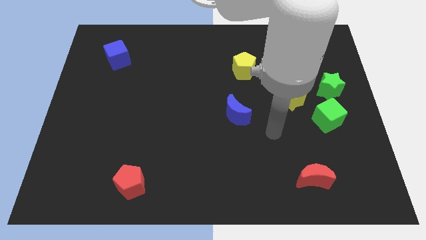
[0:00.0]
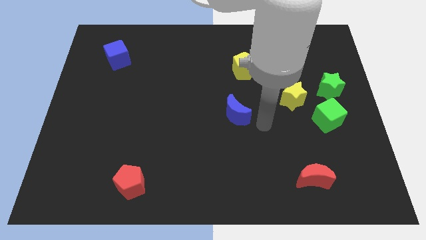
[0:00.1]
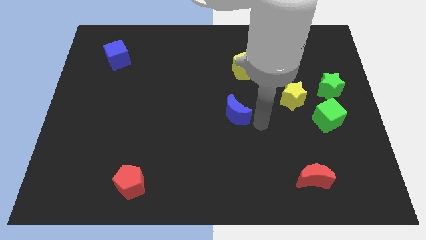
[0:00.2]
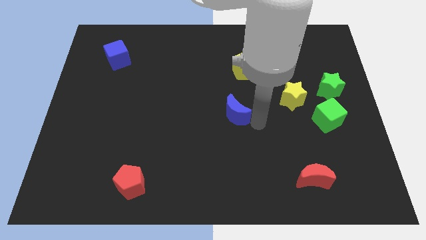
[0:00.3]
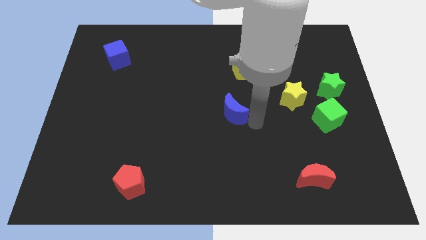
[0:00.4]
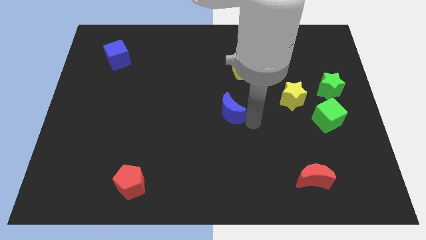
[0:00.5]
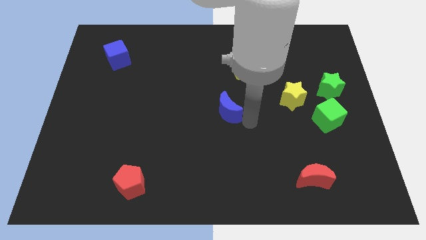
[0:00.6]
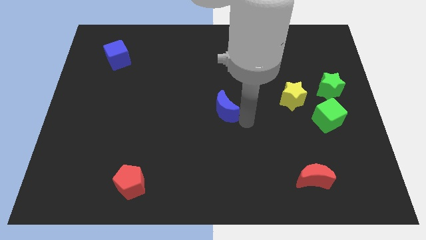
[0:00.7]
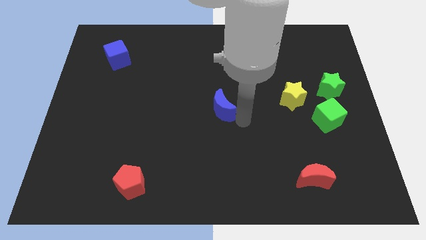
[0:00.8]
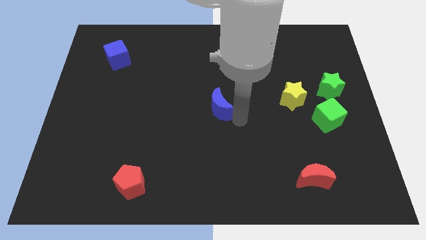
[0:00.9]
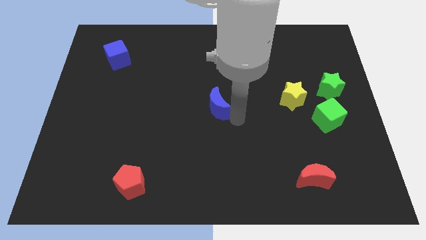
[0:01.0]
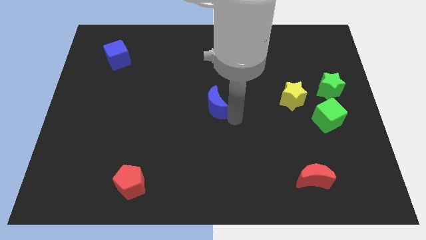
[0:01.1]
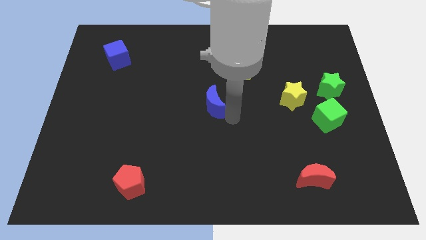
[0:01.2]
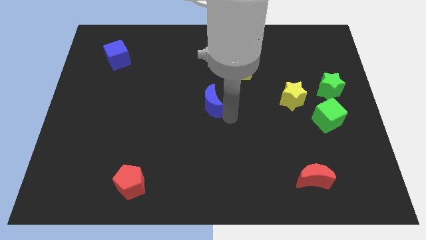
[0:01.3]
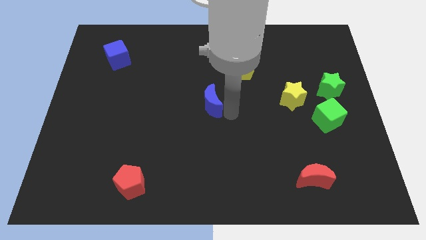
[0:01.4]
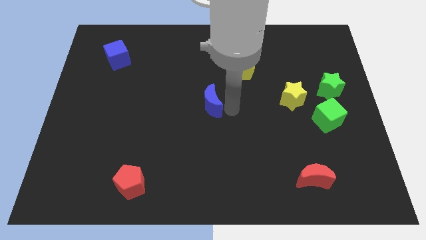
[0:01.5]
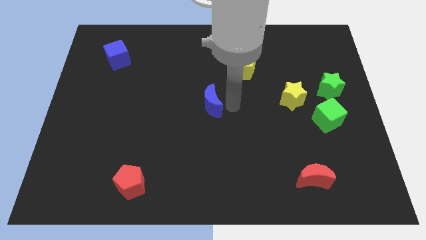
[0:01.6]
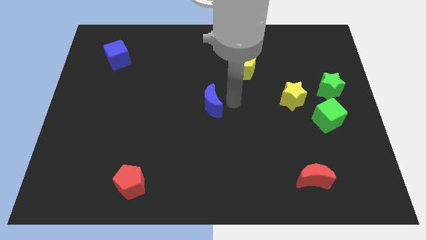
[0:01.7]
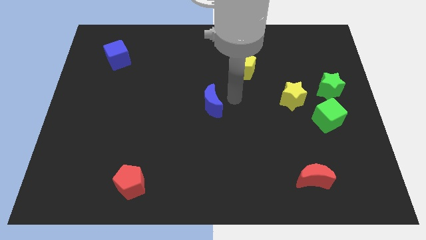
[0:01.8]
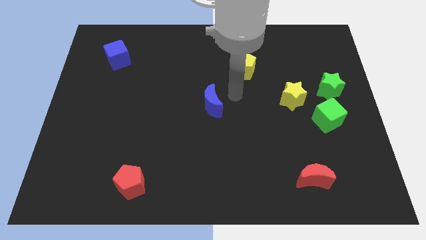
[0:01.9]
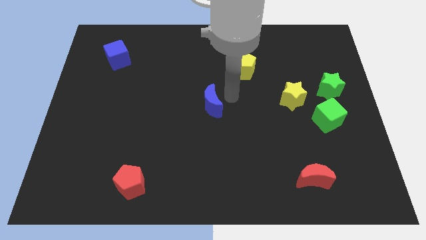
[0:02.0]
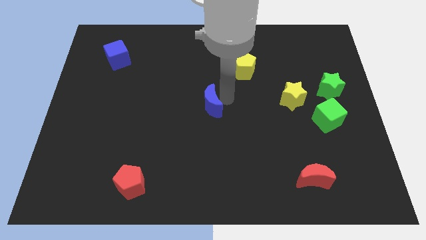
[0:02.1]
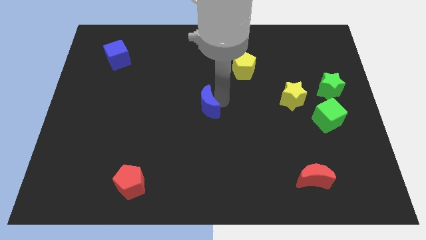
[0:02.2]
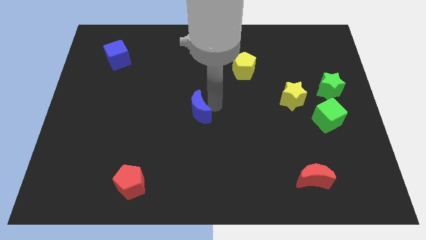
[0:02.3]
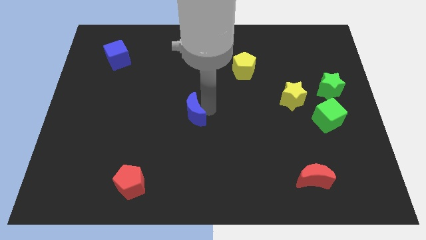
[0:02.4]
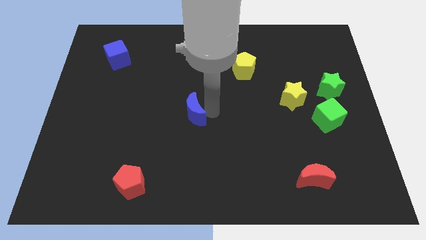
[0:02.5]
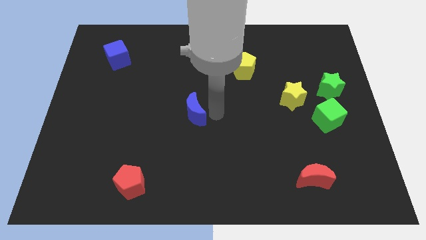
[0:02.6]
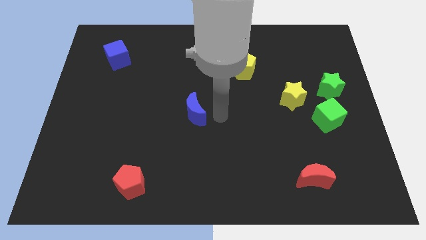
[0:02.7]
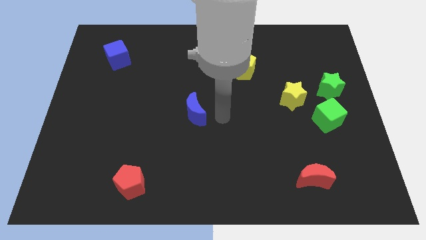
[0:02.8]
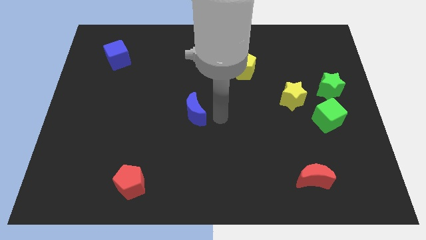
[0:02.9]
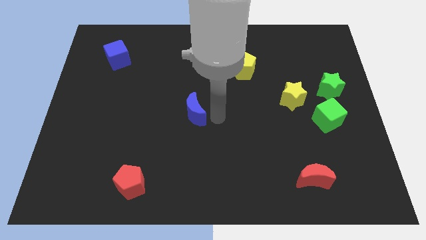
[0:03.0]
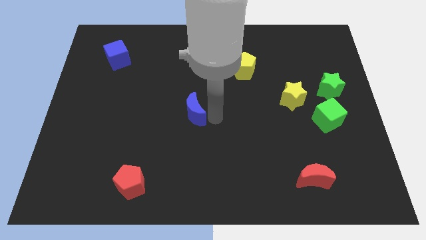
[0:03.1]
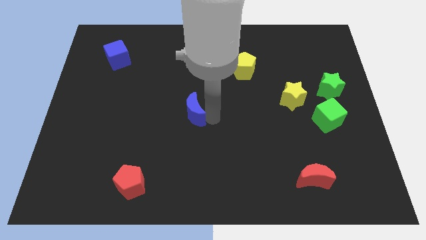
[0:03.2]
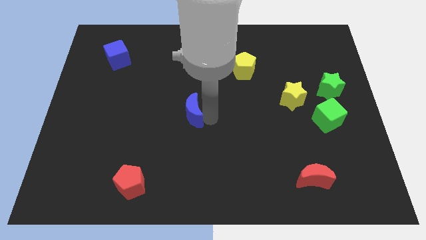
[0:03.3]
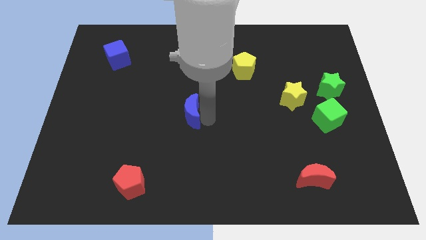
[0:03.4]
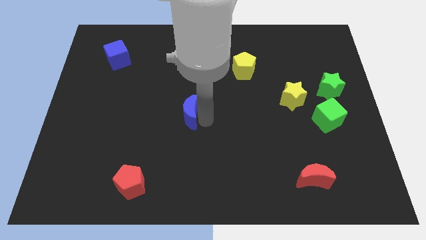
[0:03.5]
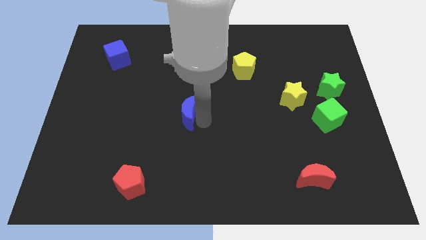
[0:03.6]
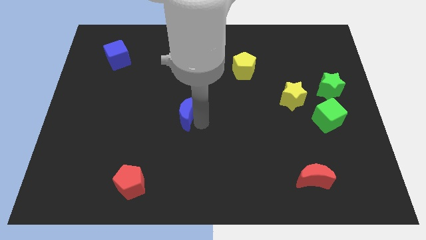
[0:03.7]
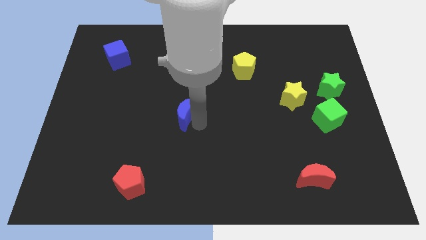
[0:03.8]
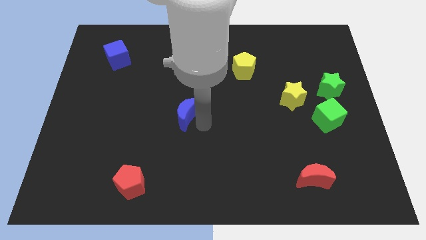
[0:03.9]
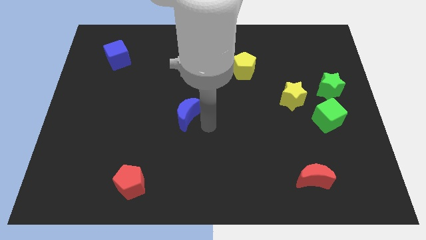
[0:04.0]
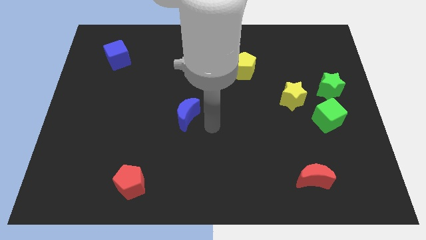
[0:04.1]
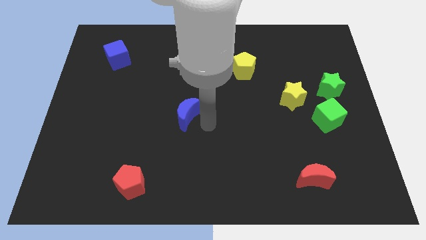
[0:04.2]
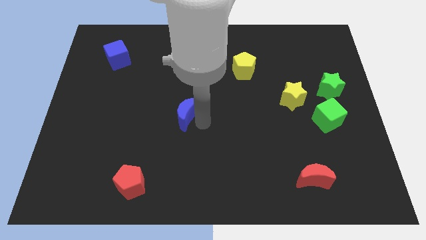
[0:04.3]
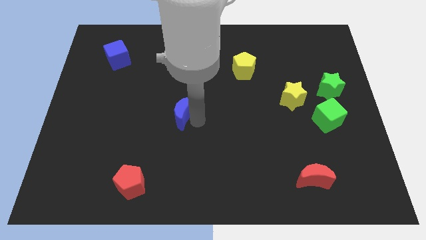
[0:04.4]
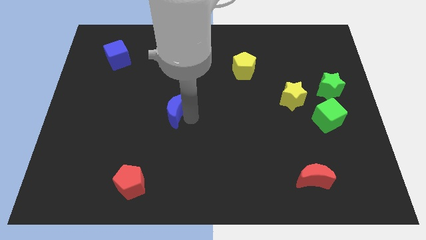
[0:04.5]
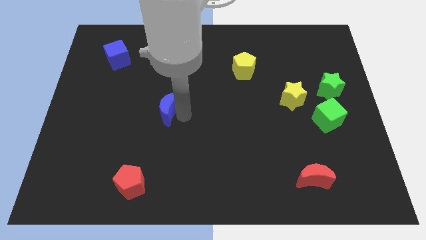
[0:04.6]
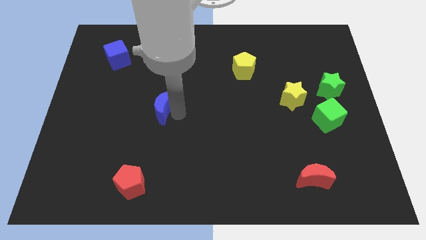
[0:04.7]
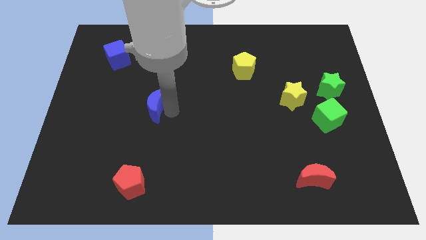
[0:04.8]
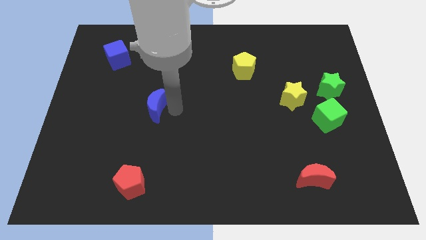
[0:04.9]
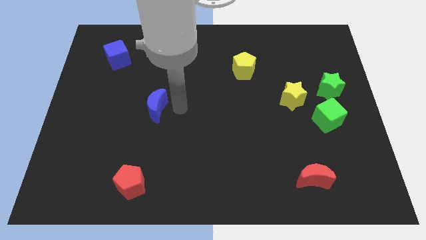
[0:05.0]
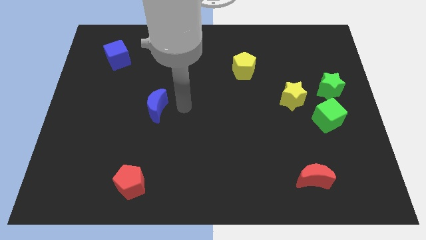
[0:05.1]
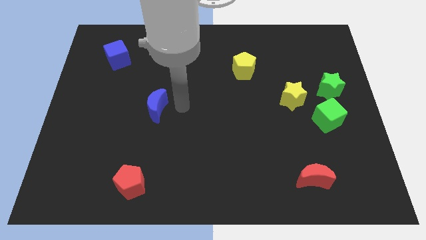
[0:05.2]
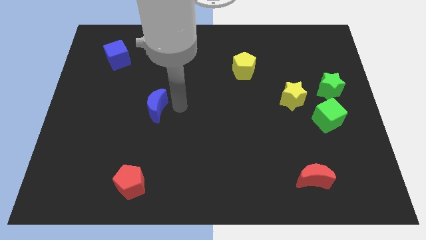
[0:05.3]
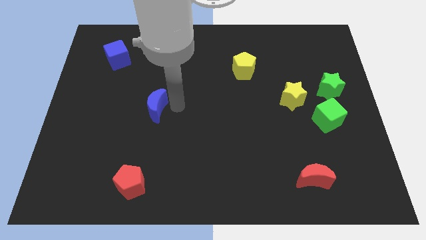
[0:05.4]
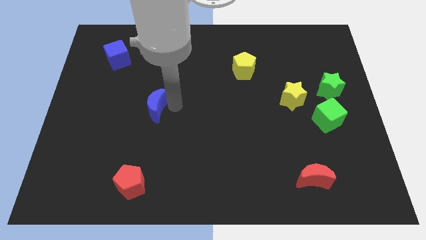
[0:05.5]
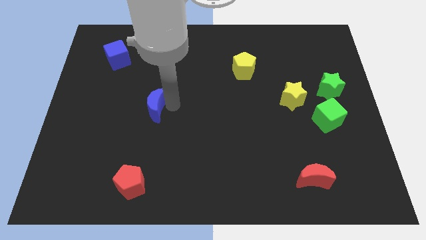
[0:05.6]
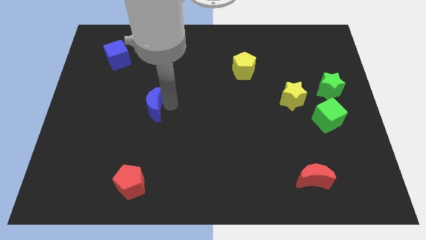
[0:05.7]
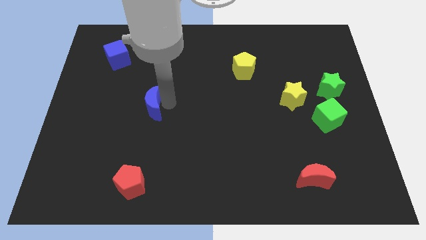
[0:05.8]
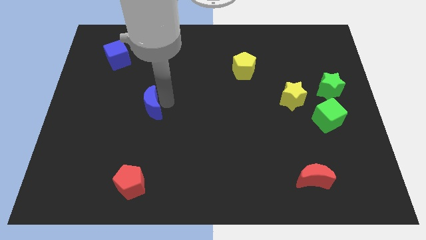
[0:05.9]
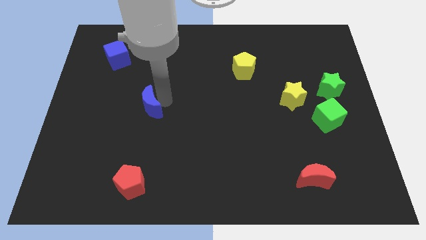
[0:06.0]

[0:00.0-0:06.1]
push the blue moon left

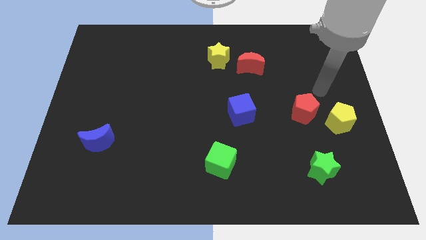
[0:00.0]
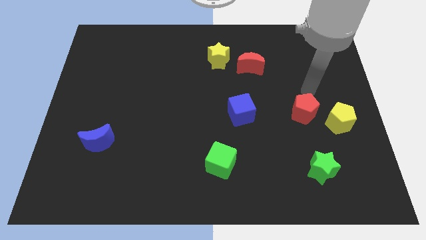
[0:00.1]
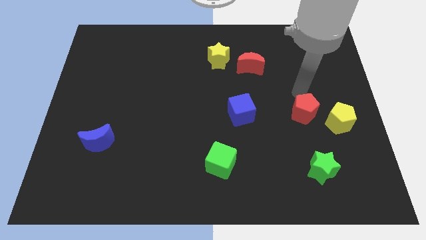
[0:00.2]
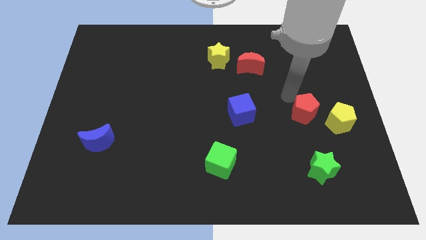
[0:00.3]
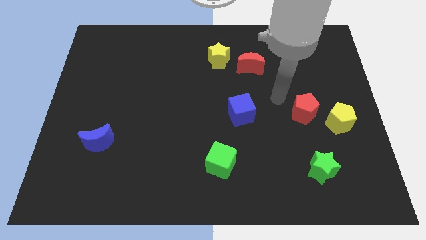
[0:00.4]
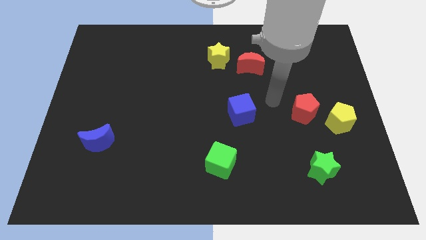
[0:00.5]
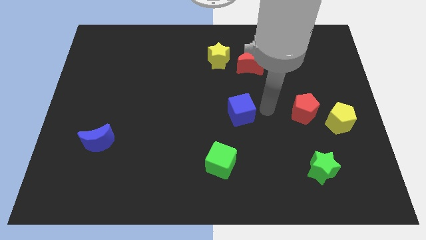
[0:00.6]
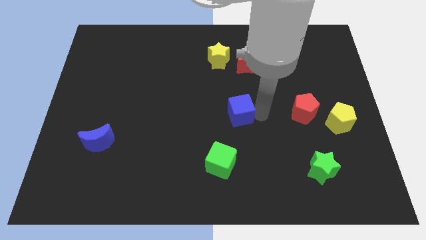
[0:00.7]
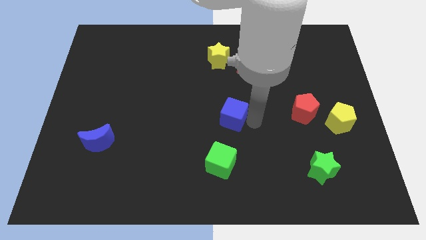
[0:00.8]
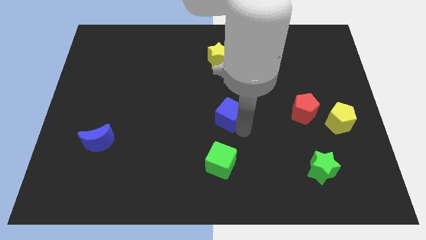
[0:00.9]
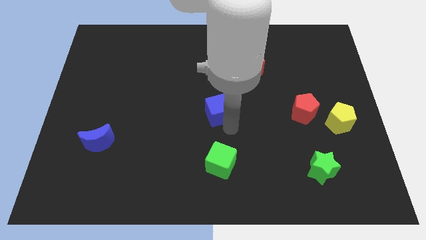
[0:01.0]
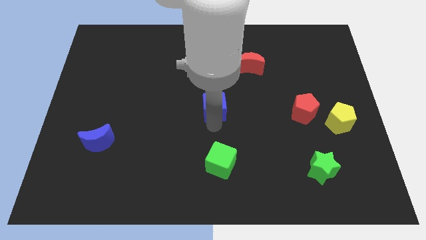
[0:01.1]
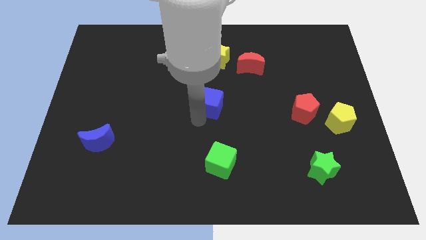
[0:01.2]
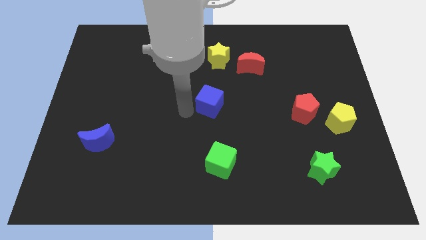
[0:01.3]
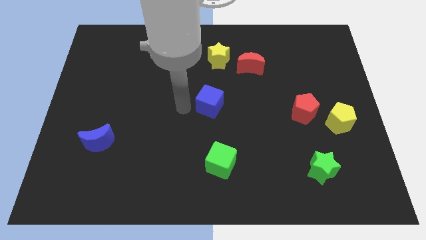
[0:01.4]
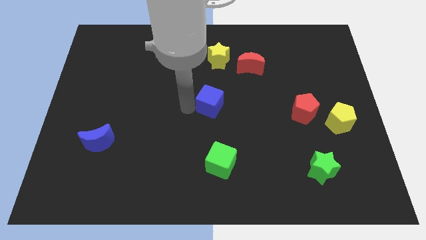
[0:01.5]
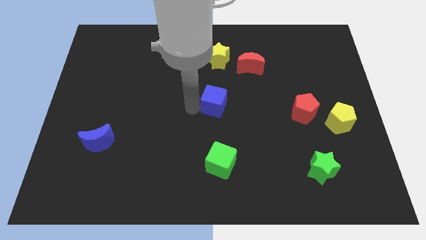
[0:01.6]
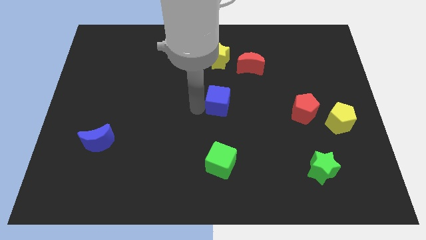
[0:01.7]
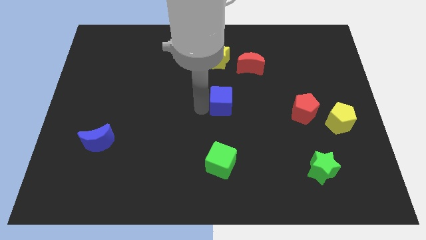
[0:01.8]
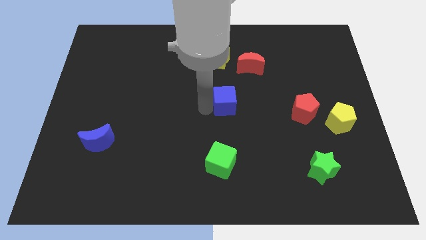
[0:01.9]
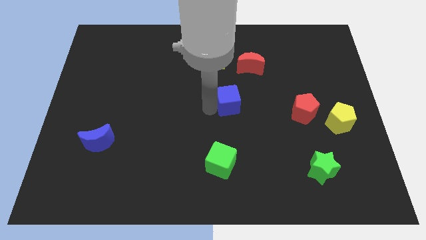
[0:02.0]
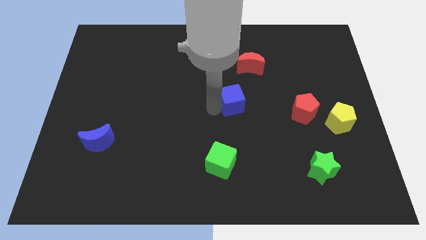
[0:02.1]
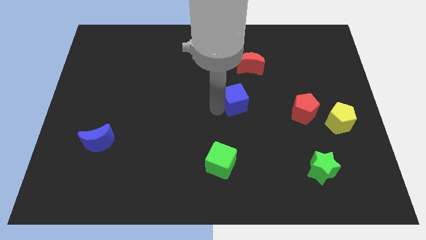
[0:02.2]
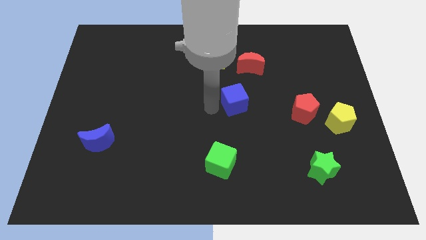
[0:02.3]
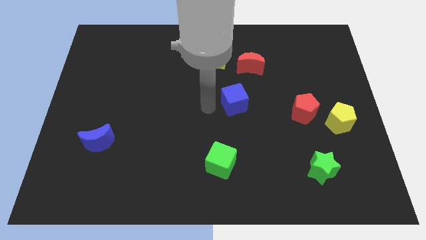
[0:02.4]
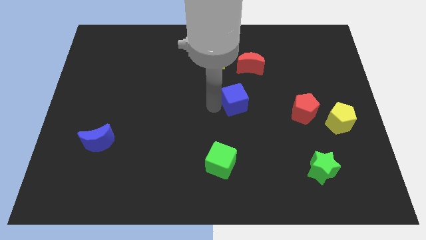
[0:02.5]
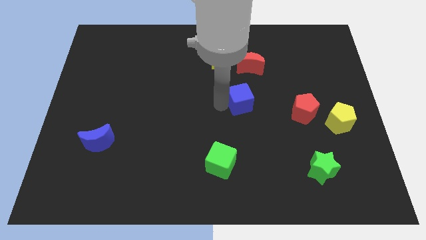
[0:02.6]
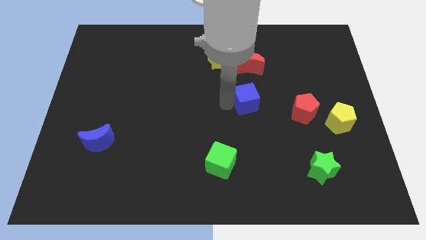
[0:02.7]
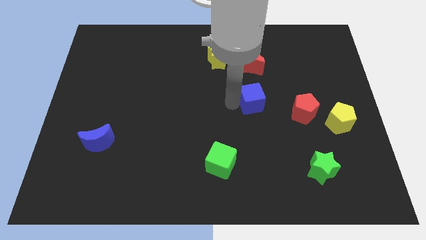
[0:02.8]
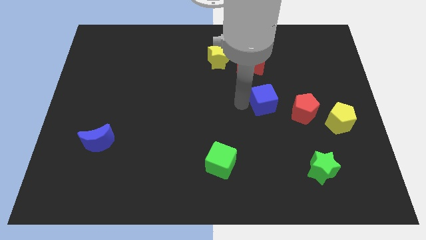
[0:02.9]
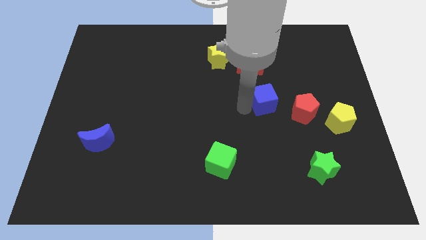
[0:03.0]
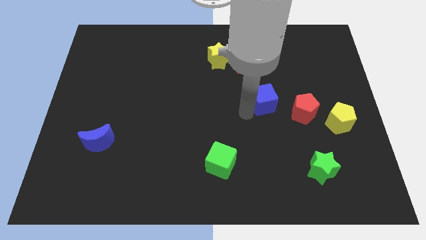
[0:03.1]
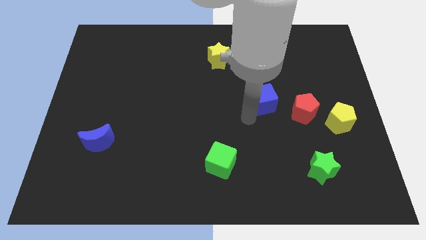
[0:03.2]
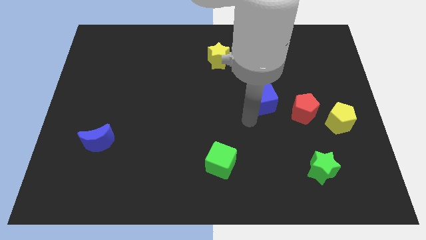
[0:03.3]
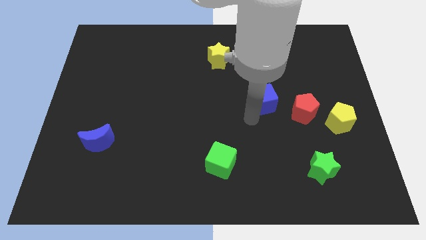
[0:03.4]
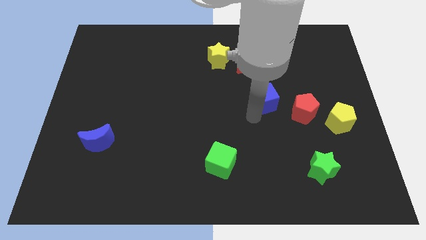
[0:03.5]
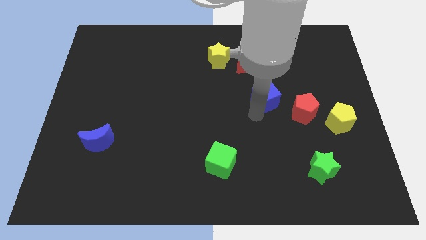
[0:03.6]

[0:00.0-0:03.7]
move the blue cube diagonally upwards and right a little bit
